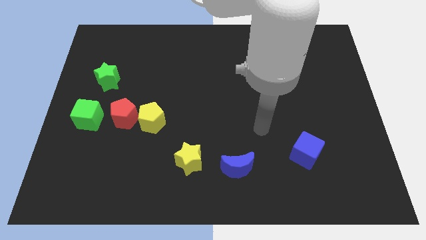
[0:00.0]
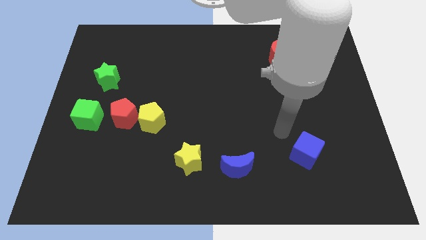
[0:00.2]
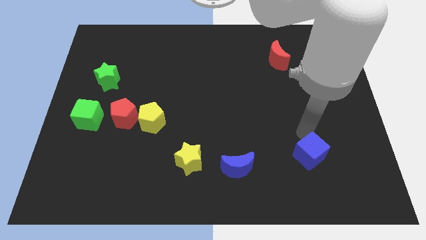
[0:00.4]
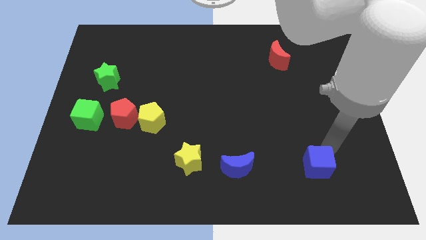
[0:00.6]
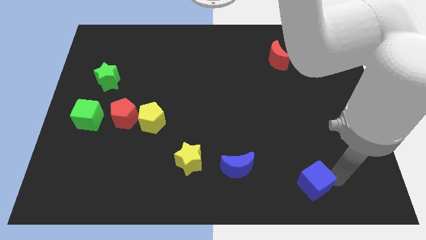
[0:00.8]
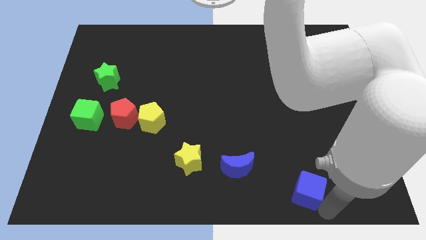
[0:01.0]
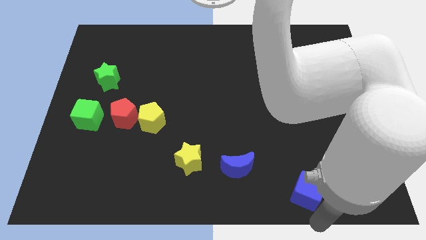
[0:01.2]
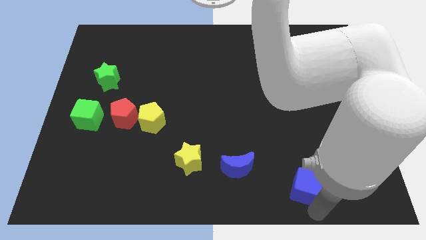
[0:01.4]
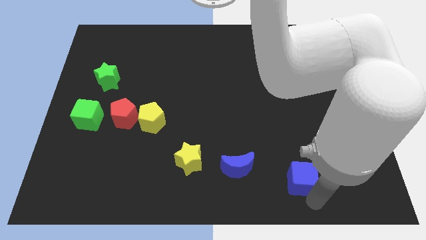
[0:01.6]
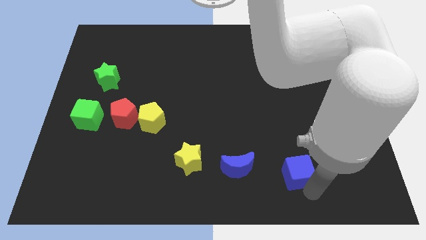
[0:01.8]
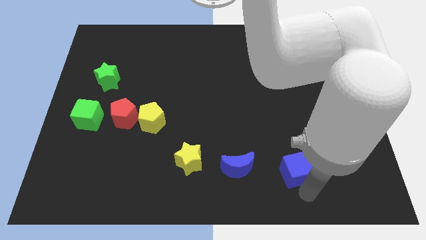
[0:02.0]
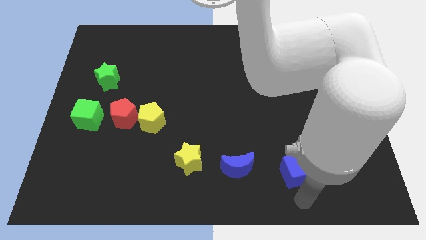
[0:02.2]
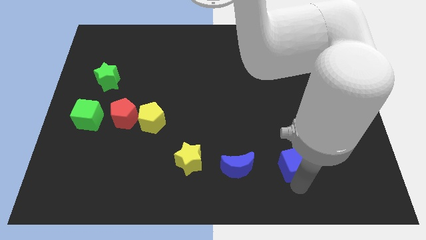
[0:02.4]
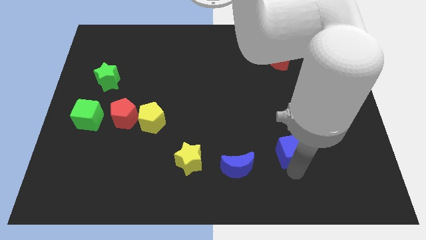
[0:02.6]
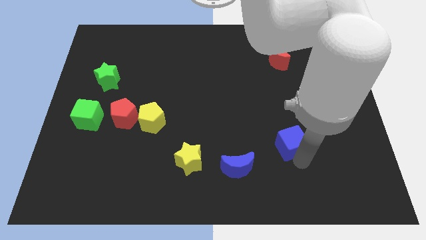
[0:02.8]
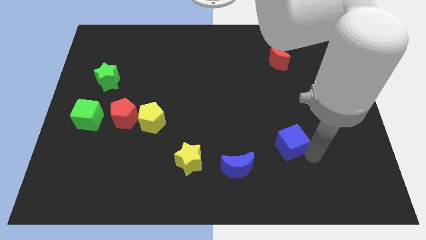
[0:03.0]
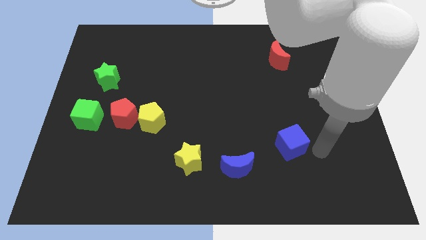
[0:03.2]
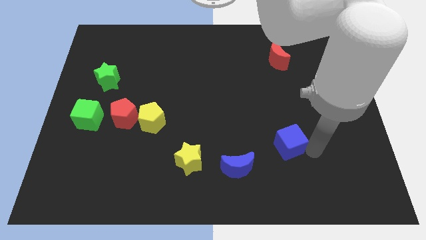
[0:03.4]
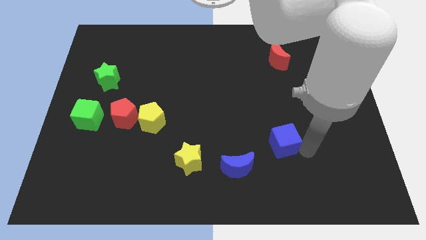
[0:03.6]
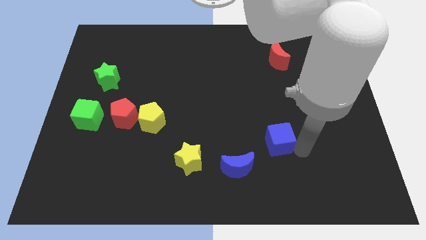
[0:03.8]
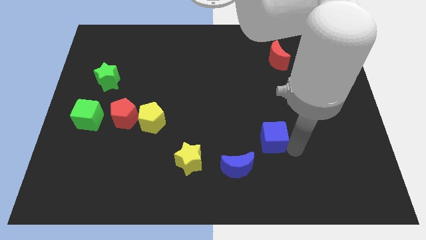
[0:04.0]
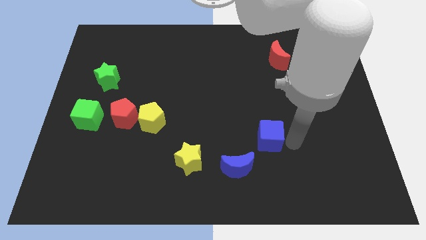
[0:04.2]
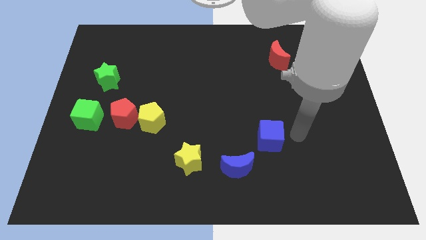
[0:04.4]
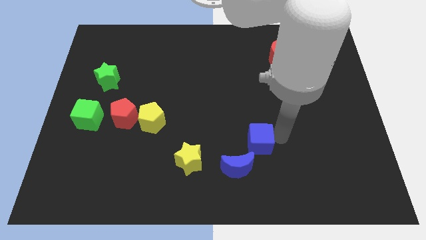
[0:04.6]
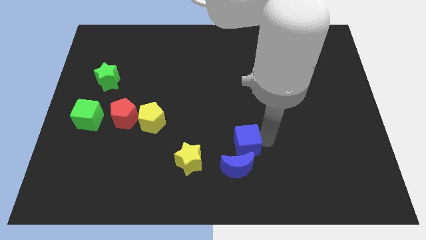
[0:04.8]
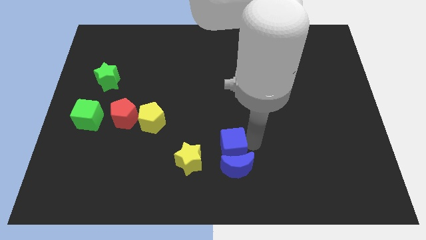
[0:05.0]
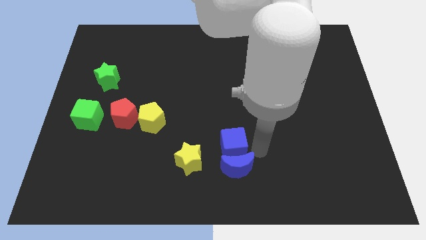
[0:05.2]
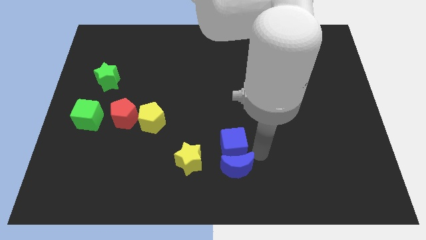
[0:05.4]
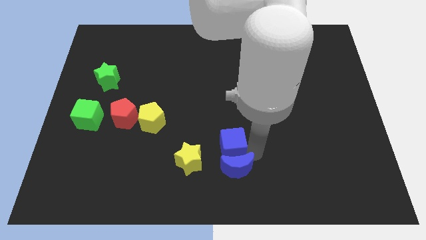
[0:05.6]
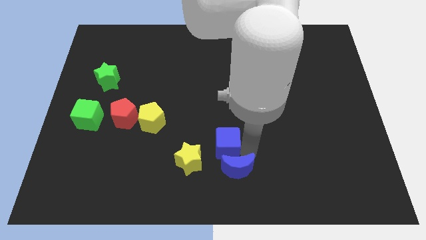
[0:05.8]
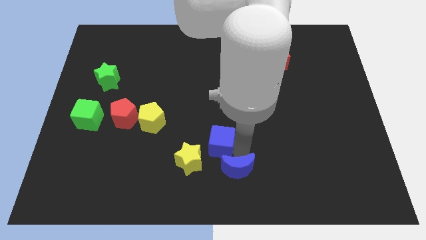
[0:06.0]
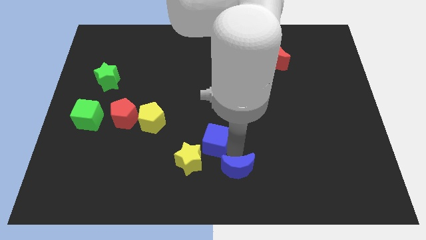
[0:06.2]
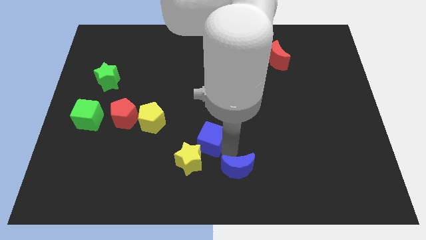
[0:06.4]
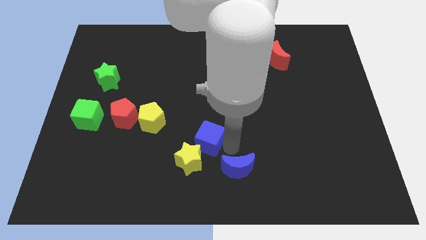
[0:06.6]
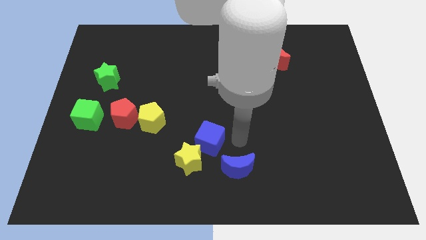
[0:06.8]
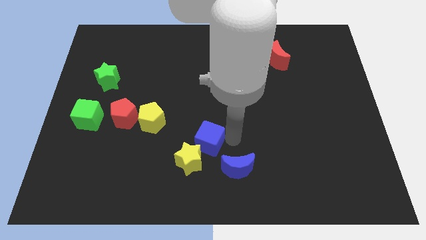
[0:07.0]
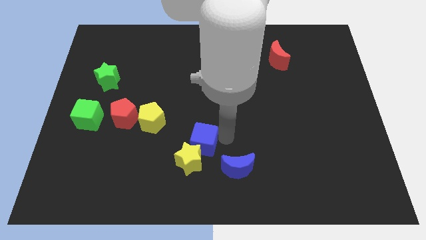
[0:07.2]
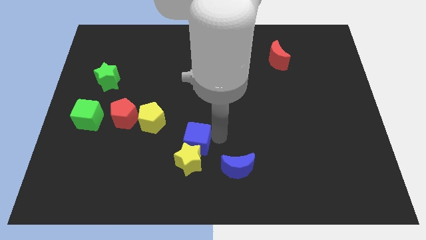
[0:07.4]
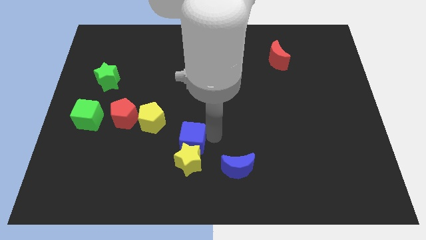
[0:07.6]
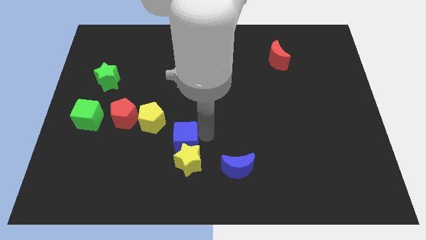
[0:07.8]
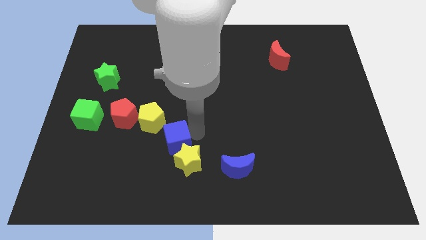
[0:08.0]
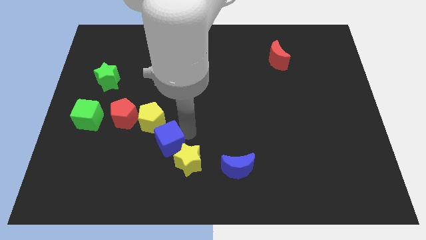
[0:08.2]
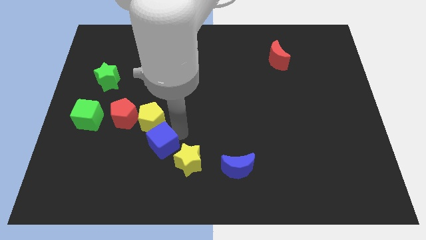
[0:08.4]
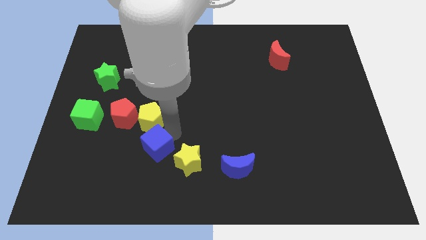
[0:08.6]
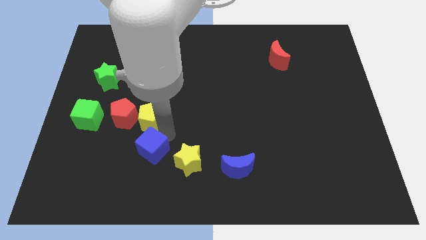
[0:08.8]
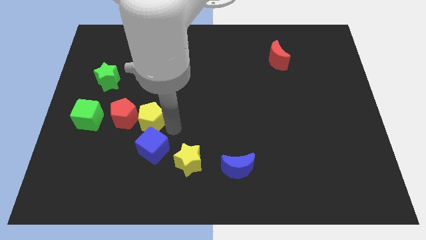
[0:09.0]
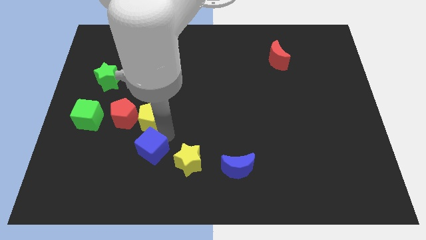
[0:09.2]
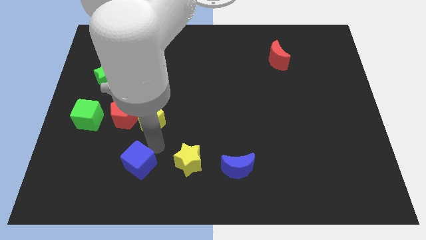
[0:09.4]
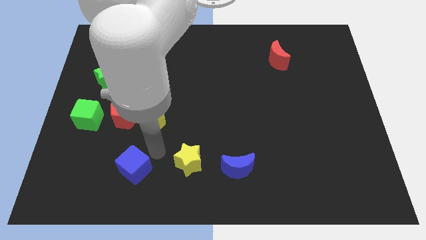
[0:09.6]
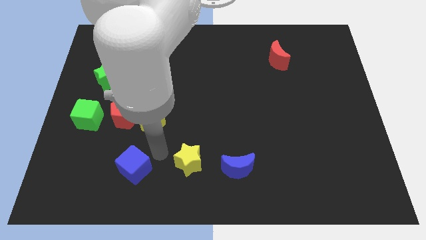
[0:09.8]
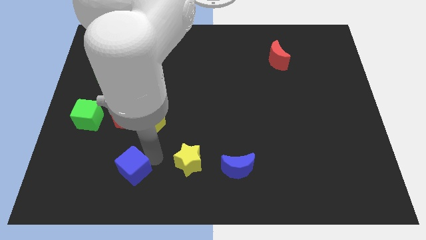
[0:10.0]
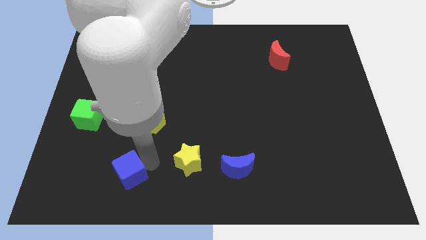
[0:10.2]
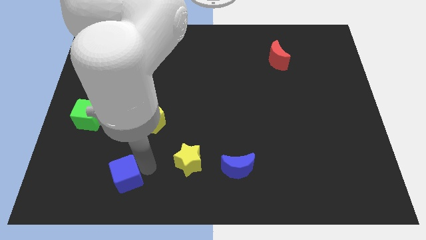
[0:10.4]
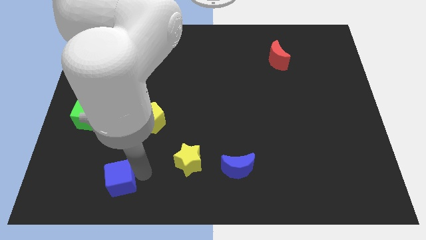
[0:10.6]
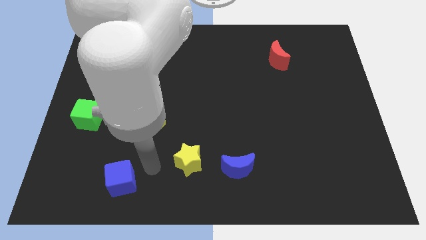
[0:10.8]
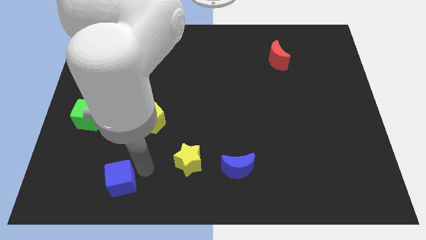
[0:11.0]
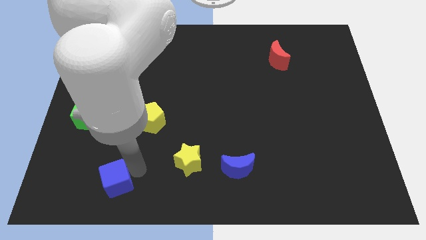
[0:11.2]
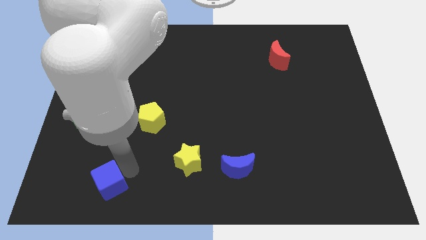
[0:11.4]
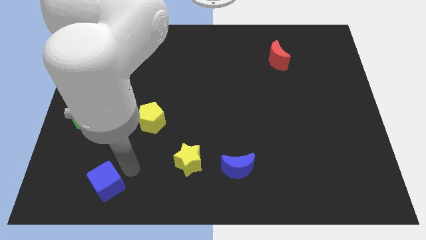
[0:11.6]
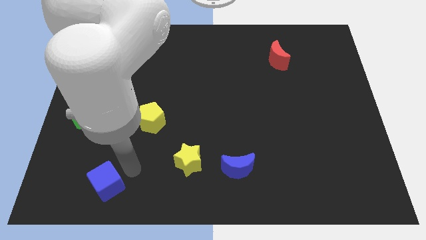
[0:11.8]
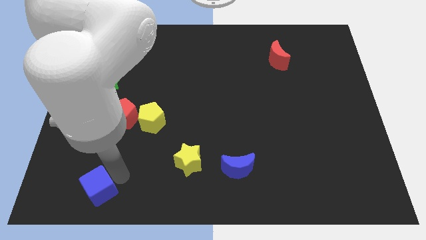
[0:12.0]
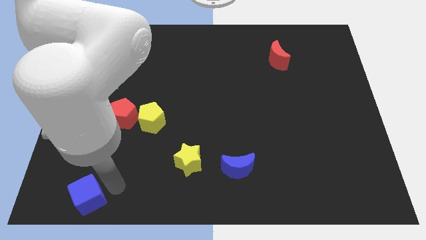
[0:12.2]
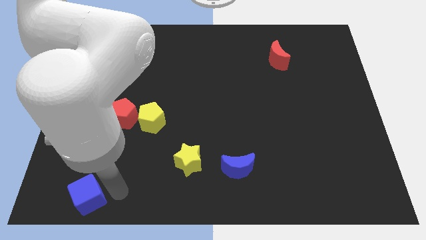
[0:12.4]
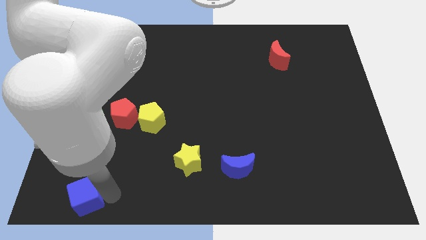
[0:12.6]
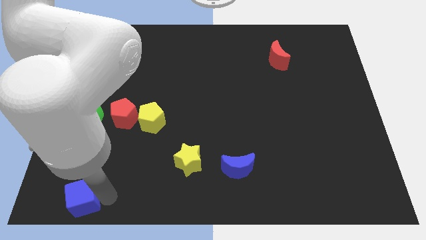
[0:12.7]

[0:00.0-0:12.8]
push the blue cube to the bottom left corner

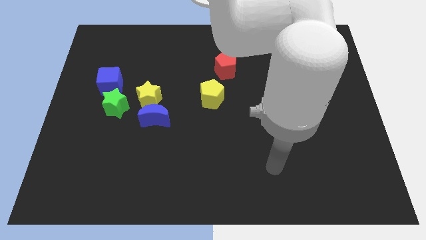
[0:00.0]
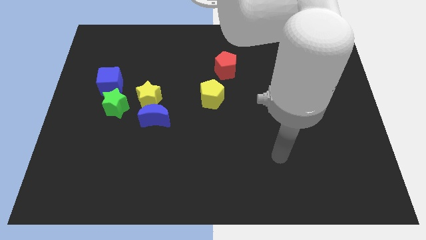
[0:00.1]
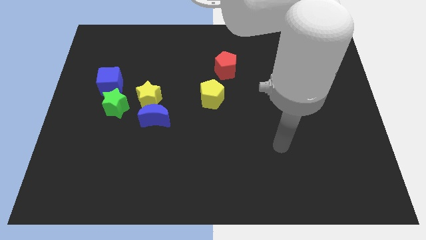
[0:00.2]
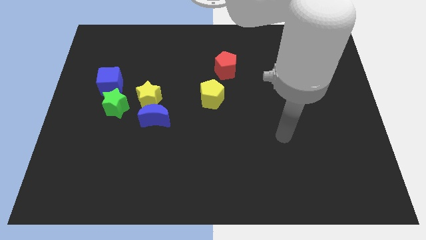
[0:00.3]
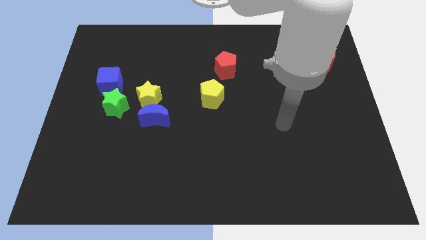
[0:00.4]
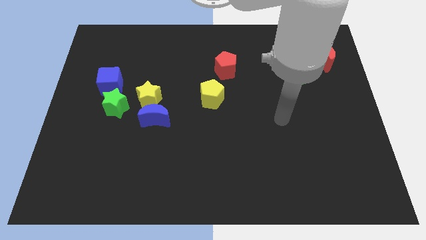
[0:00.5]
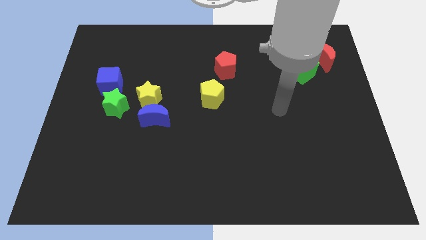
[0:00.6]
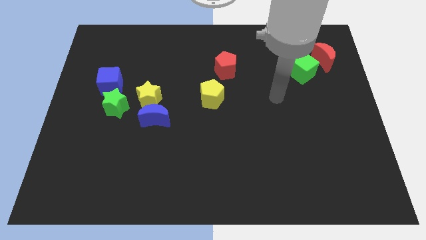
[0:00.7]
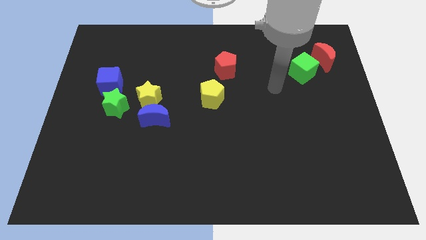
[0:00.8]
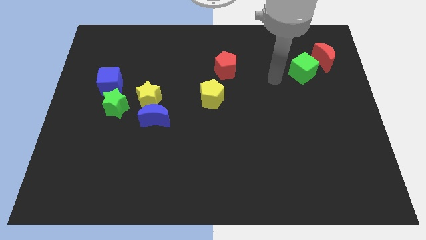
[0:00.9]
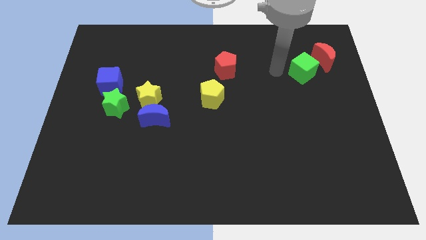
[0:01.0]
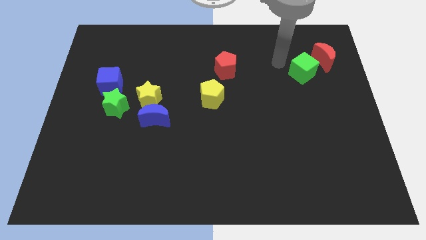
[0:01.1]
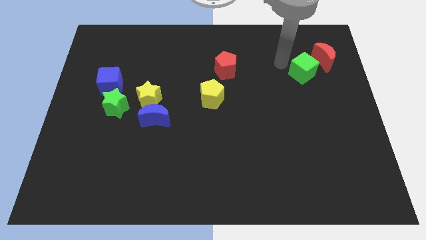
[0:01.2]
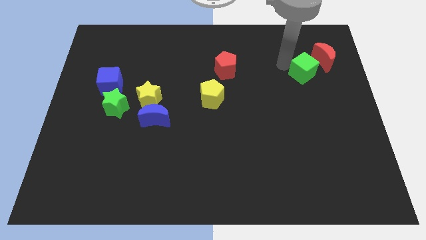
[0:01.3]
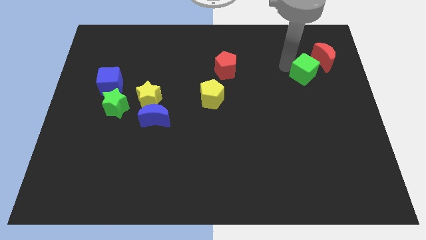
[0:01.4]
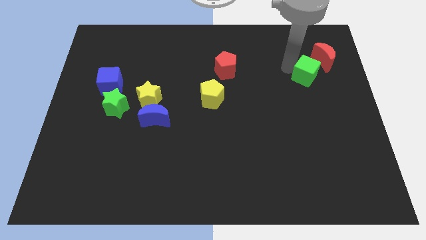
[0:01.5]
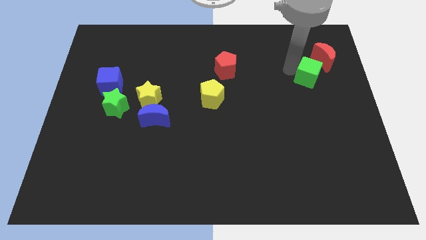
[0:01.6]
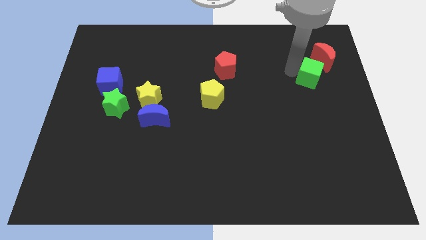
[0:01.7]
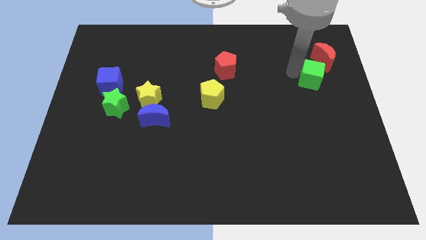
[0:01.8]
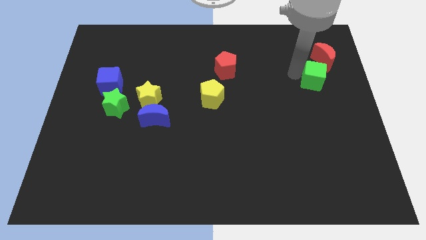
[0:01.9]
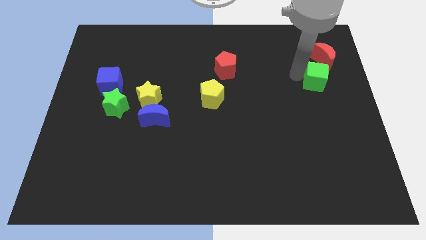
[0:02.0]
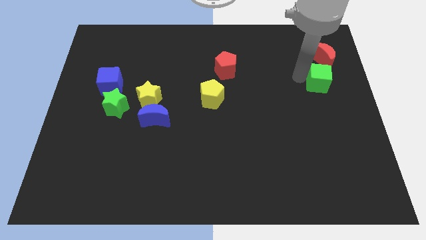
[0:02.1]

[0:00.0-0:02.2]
move the green cube to the right side of the board
